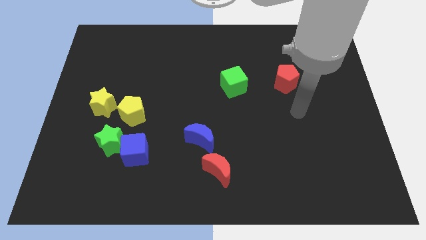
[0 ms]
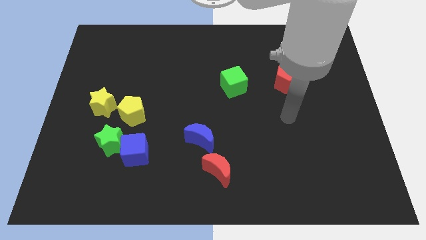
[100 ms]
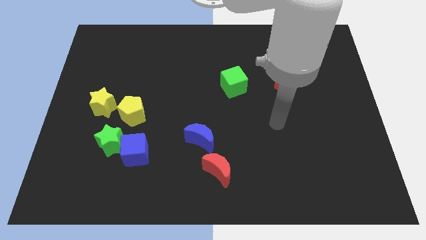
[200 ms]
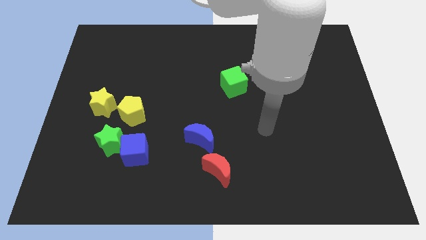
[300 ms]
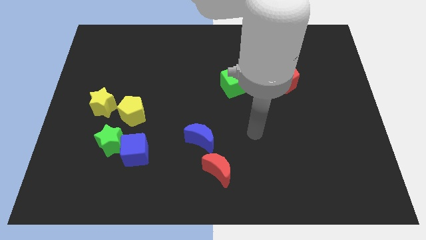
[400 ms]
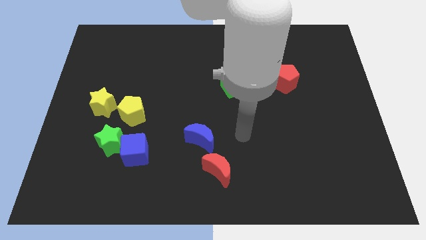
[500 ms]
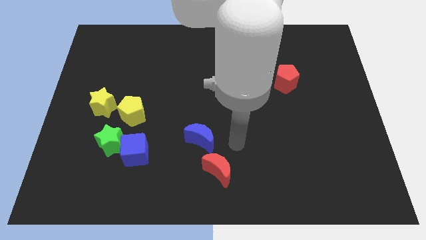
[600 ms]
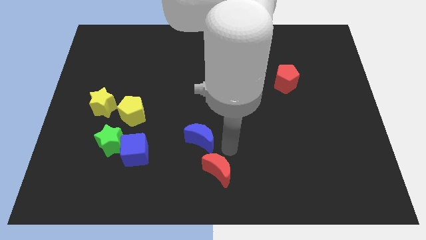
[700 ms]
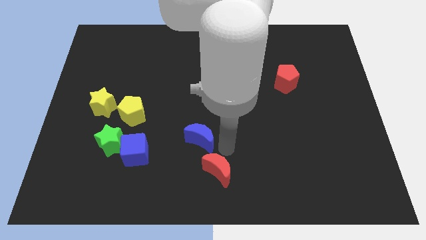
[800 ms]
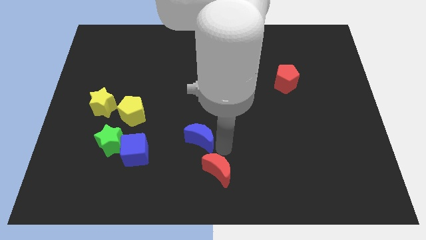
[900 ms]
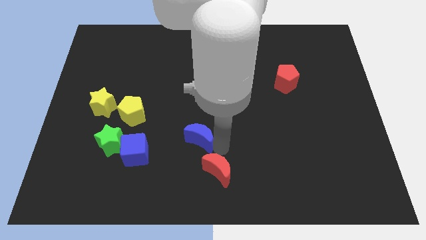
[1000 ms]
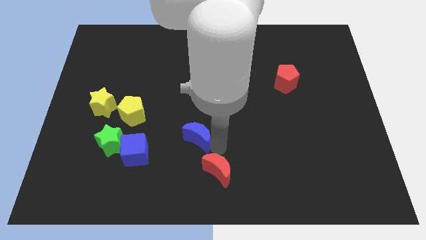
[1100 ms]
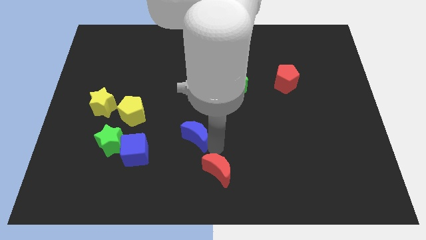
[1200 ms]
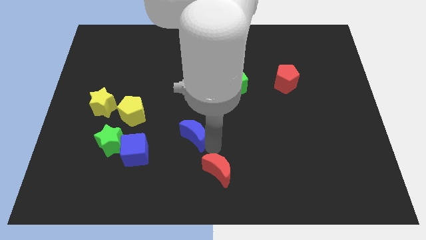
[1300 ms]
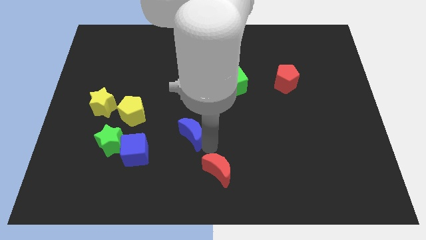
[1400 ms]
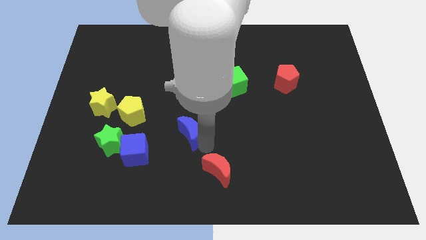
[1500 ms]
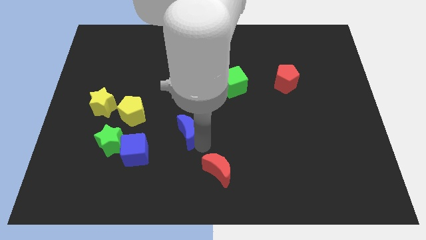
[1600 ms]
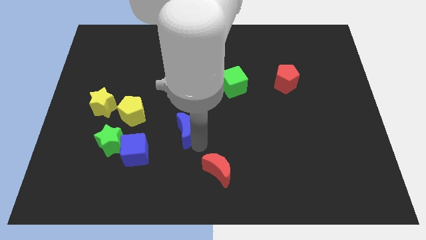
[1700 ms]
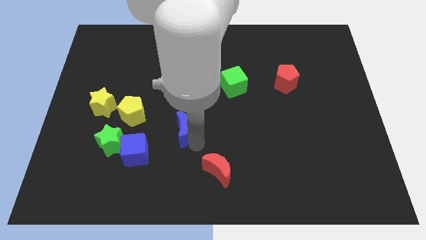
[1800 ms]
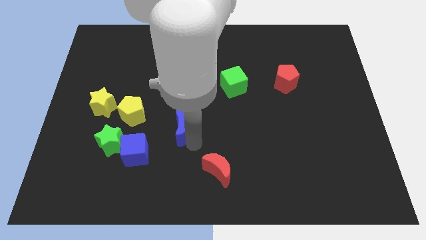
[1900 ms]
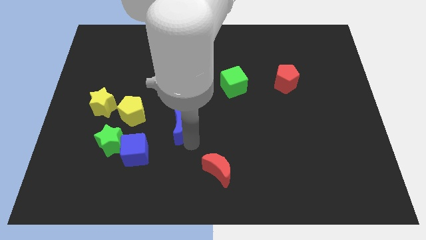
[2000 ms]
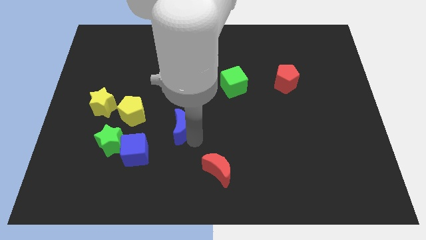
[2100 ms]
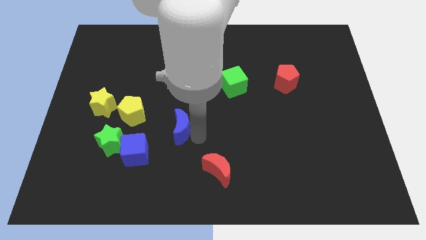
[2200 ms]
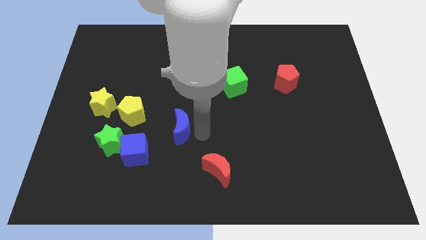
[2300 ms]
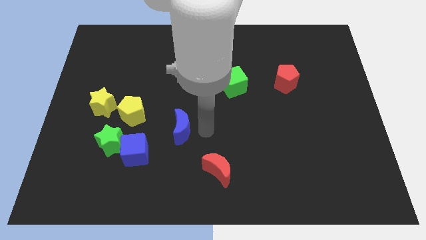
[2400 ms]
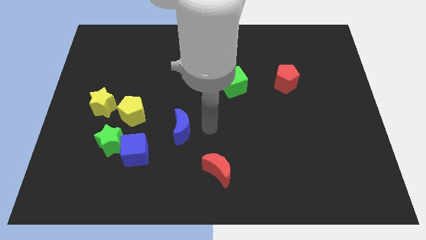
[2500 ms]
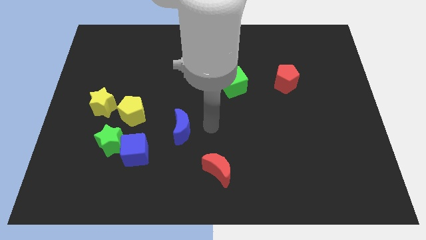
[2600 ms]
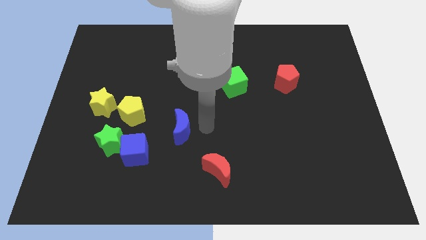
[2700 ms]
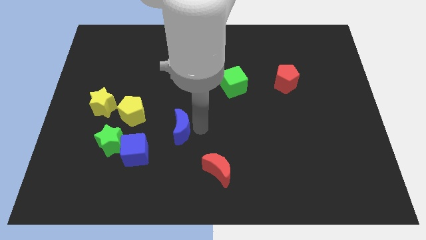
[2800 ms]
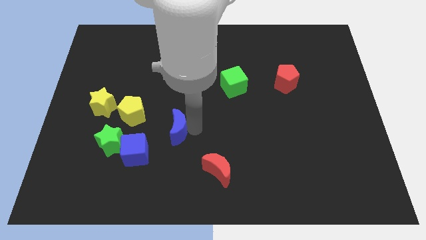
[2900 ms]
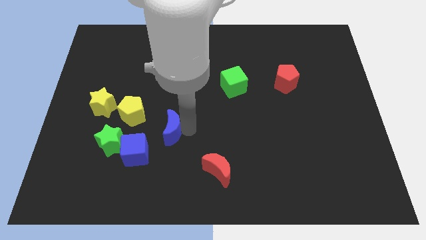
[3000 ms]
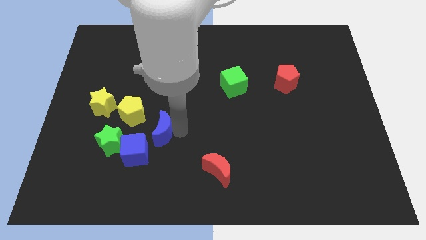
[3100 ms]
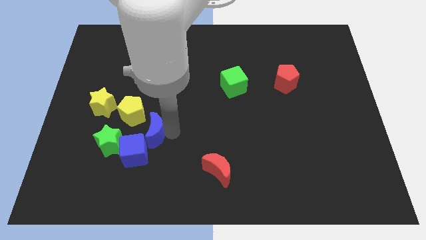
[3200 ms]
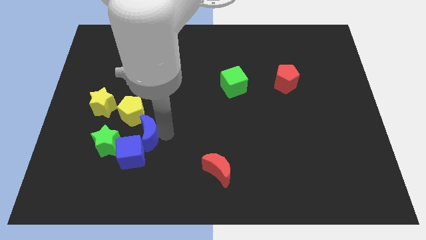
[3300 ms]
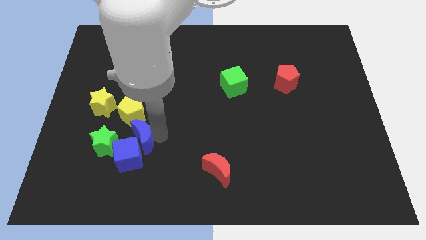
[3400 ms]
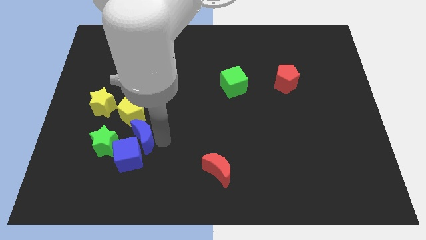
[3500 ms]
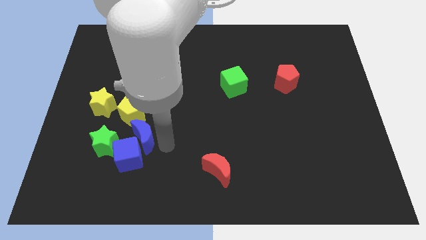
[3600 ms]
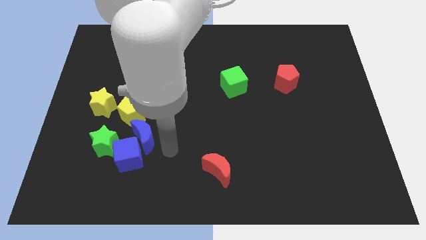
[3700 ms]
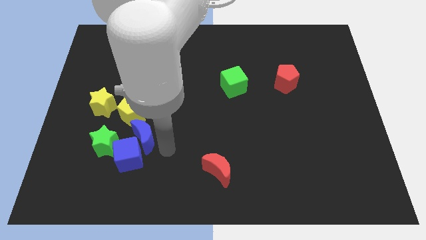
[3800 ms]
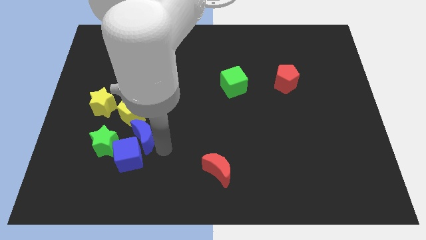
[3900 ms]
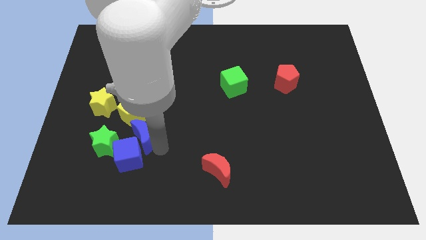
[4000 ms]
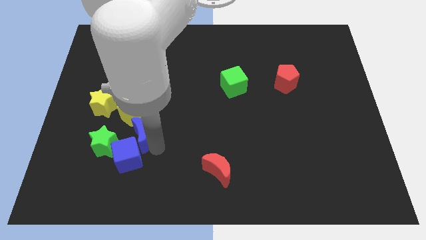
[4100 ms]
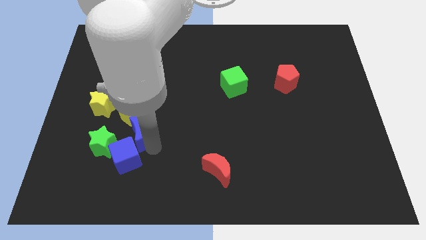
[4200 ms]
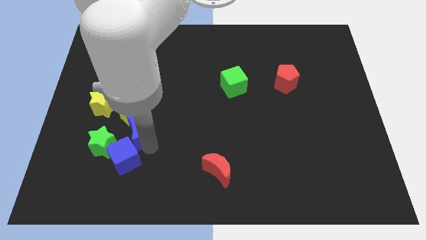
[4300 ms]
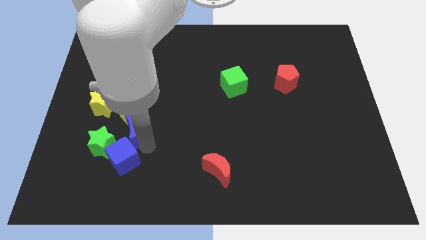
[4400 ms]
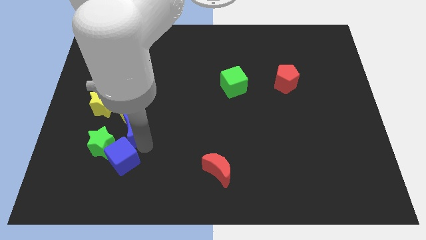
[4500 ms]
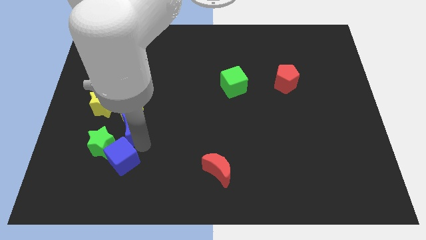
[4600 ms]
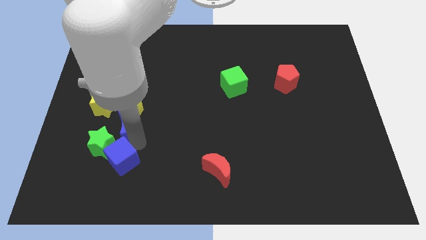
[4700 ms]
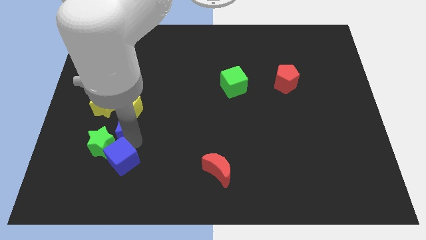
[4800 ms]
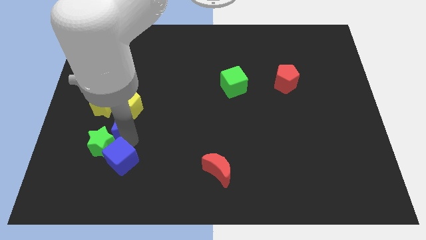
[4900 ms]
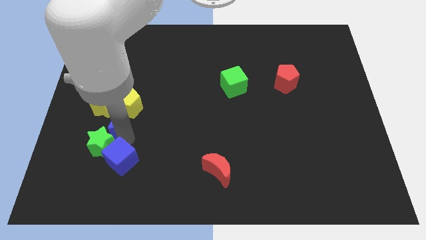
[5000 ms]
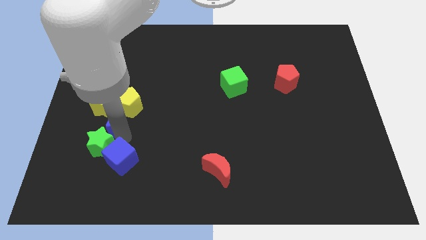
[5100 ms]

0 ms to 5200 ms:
push the blue moon close to the yellow star
